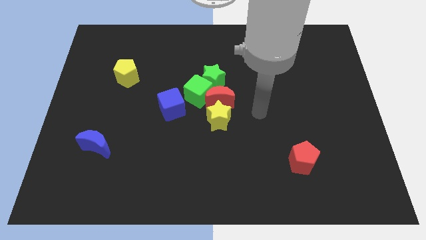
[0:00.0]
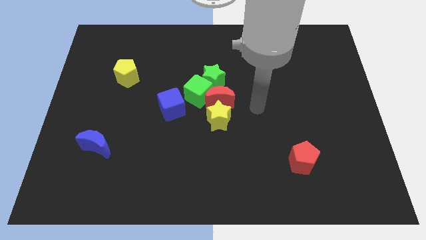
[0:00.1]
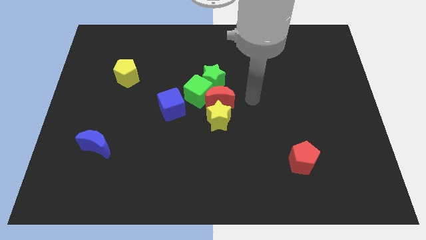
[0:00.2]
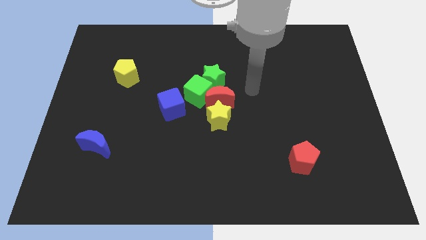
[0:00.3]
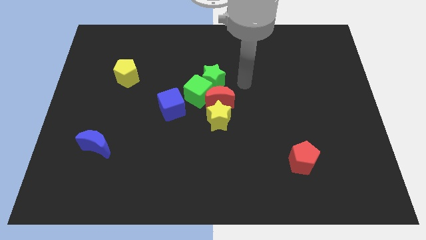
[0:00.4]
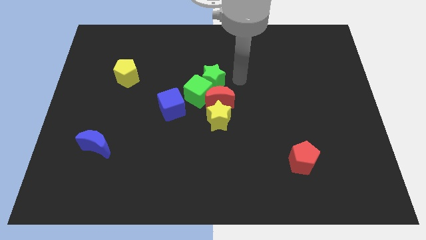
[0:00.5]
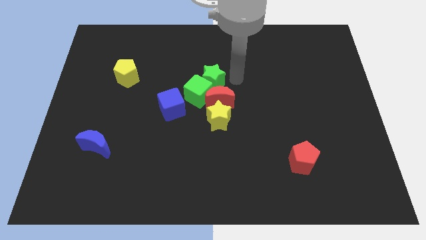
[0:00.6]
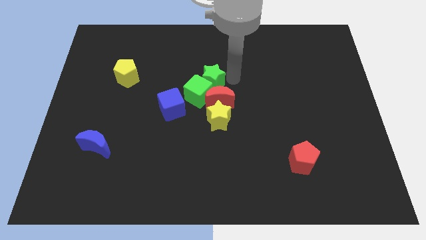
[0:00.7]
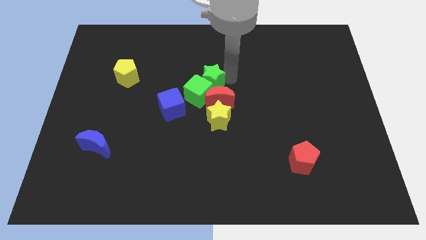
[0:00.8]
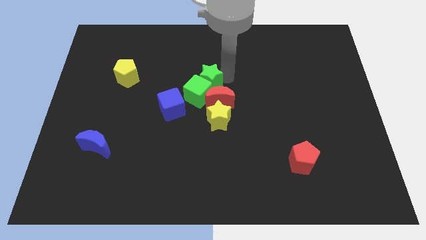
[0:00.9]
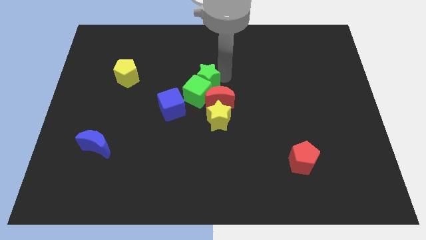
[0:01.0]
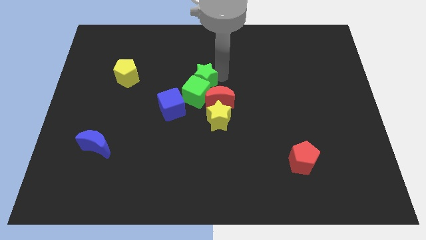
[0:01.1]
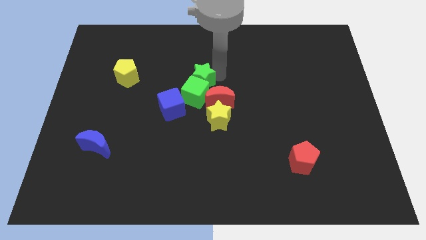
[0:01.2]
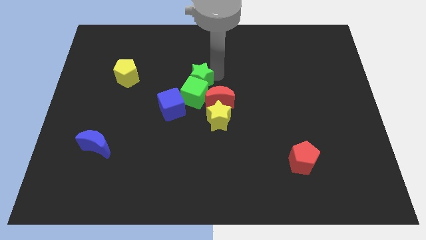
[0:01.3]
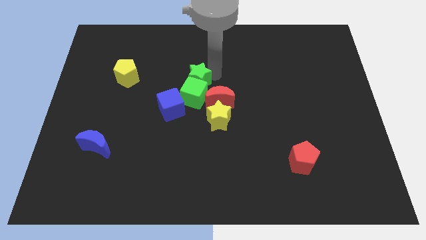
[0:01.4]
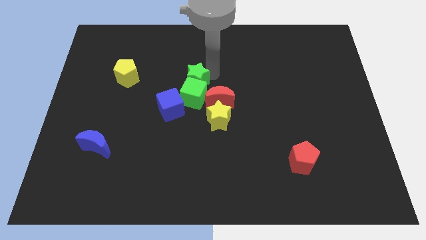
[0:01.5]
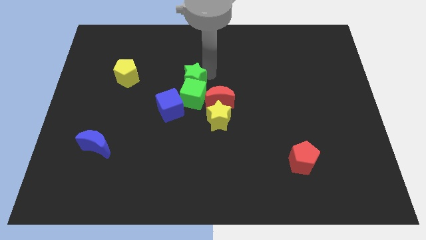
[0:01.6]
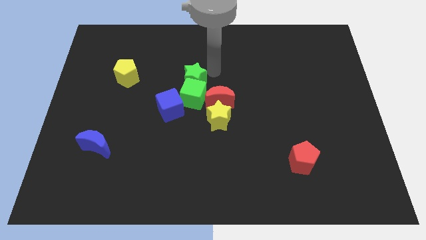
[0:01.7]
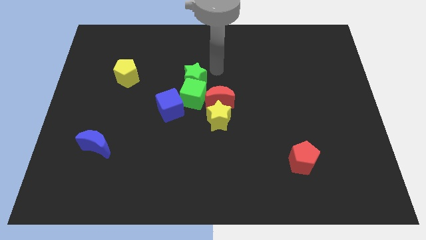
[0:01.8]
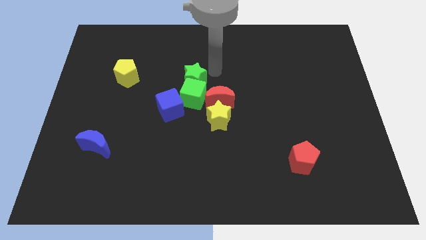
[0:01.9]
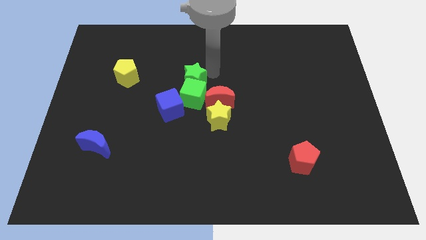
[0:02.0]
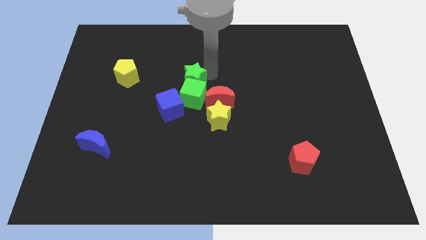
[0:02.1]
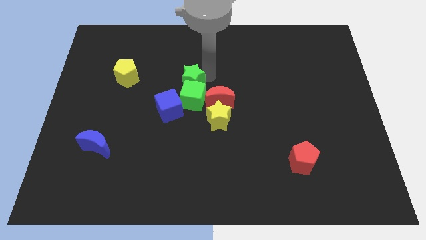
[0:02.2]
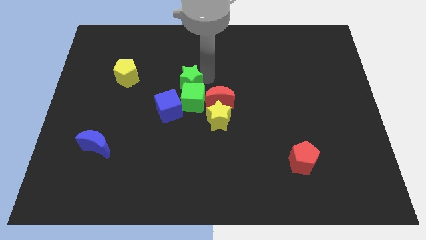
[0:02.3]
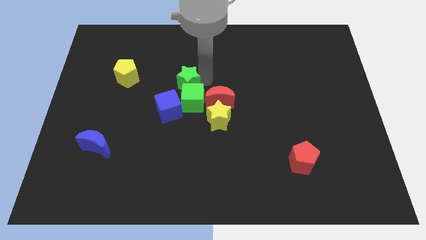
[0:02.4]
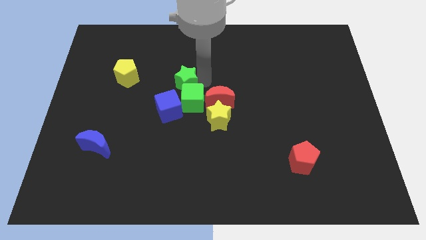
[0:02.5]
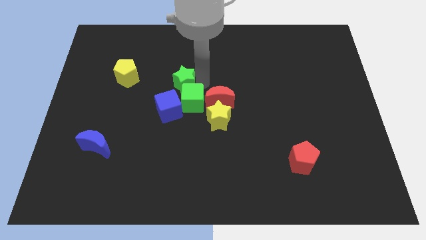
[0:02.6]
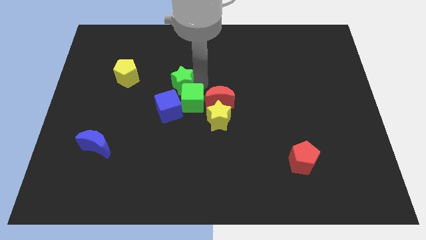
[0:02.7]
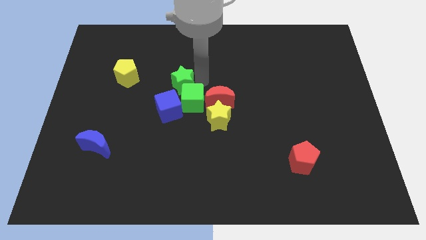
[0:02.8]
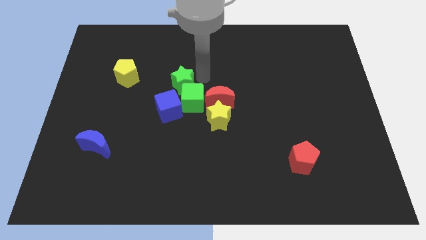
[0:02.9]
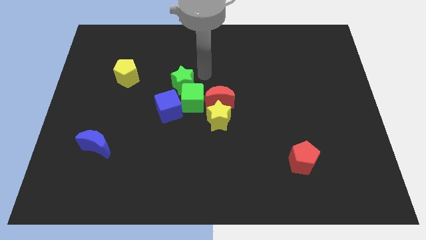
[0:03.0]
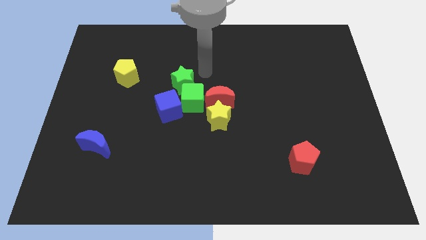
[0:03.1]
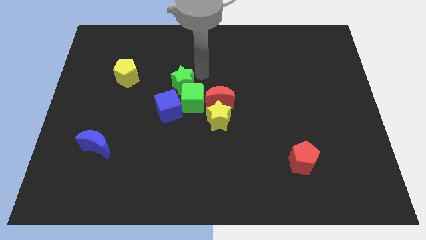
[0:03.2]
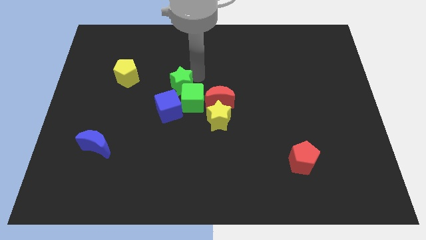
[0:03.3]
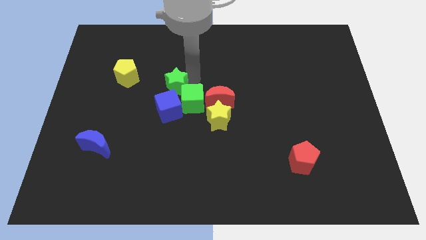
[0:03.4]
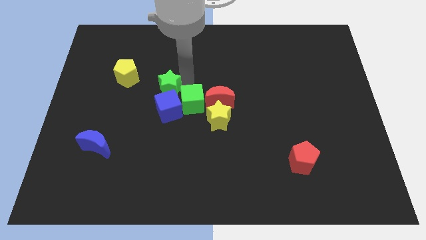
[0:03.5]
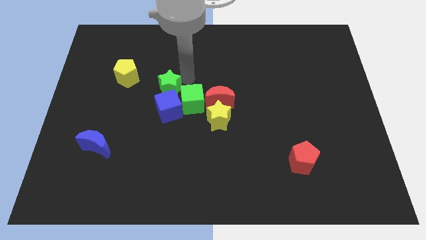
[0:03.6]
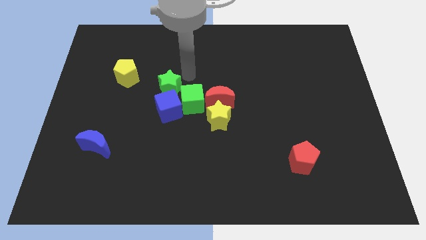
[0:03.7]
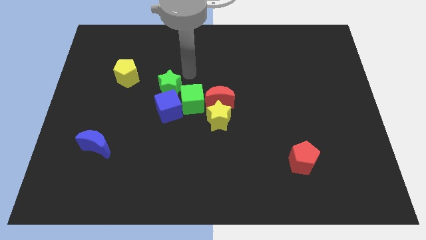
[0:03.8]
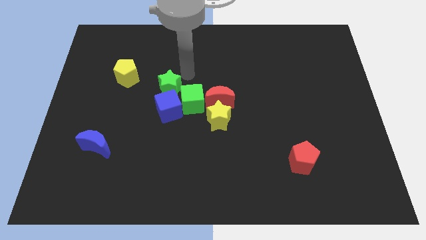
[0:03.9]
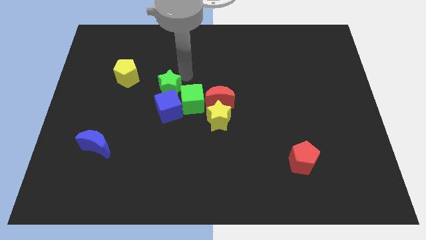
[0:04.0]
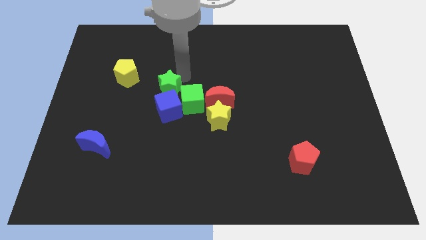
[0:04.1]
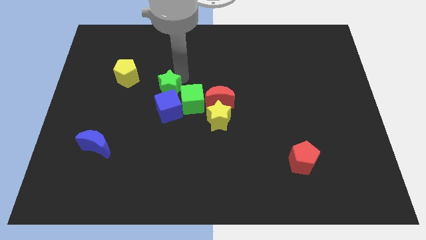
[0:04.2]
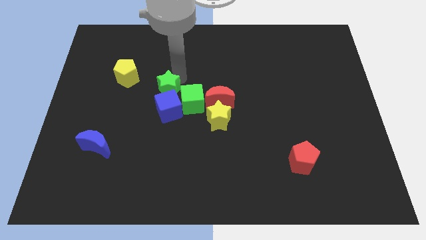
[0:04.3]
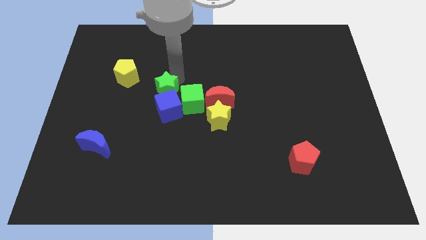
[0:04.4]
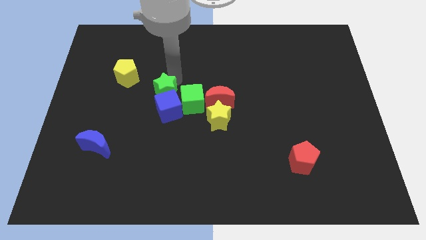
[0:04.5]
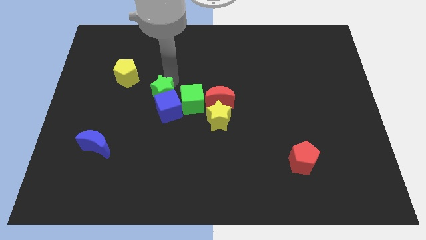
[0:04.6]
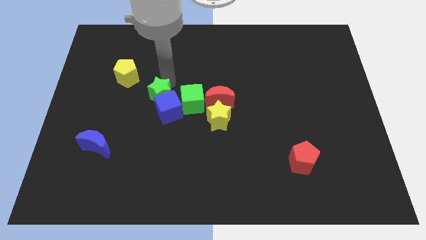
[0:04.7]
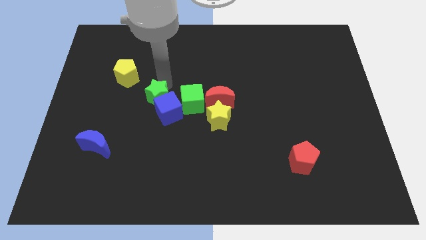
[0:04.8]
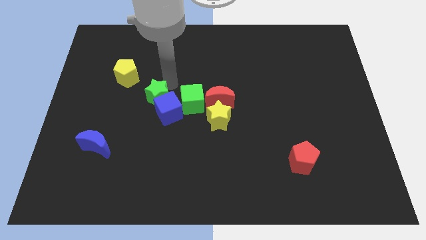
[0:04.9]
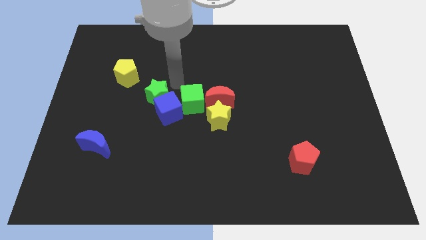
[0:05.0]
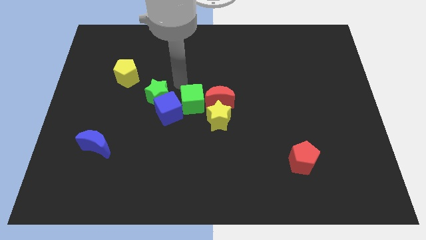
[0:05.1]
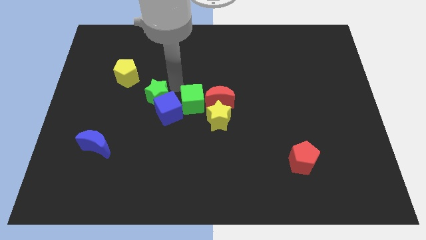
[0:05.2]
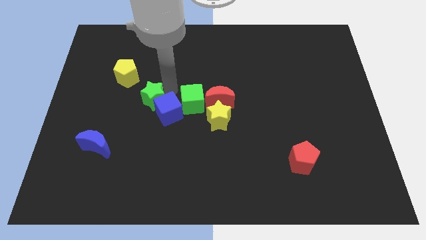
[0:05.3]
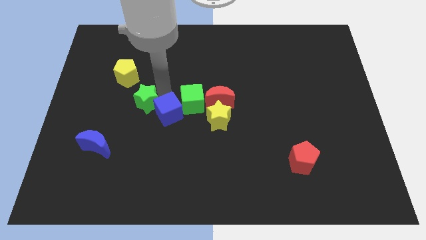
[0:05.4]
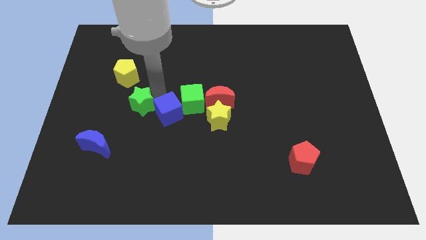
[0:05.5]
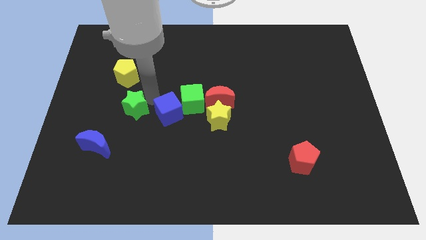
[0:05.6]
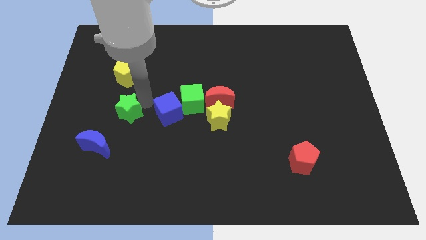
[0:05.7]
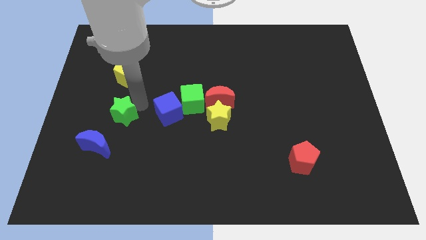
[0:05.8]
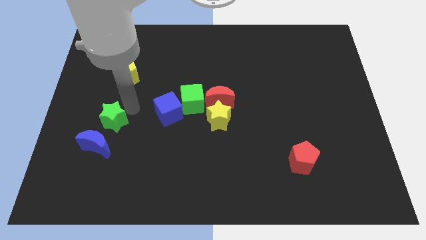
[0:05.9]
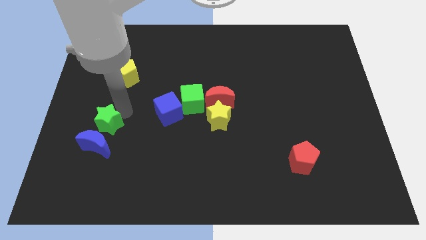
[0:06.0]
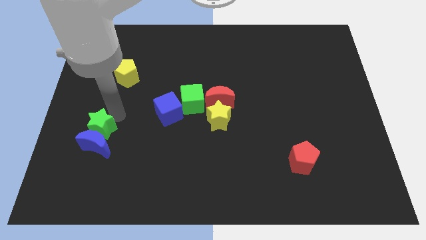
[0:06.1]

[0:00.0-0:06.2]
push the green star to the blue moon

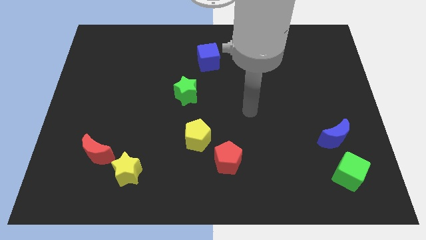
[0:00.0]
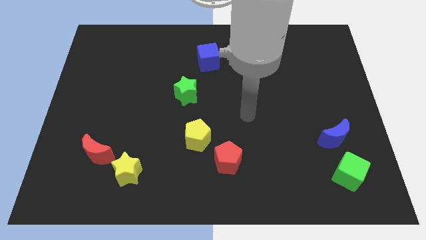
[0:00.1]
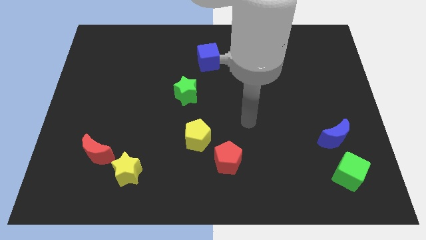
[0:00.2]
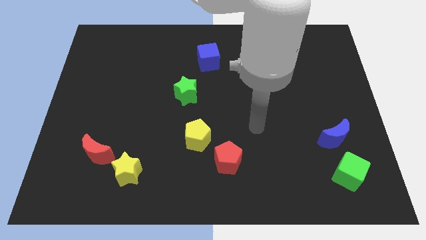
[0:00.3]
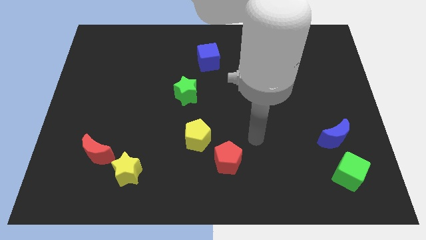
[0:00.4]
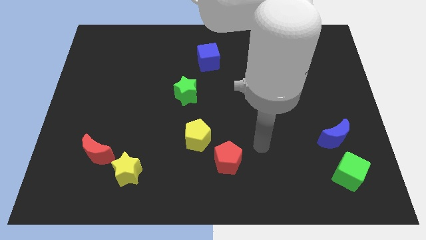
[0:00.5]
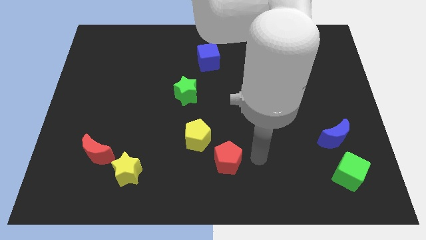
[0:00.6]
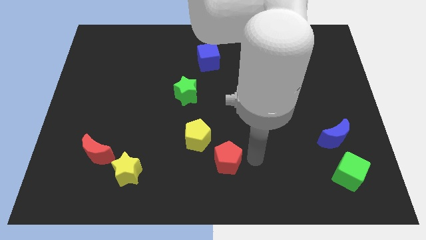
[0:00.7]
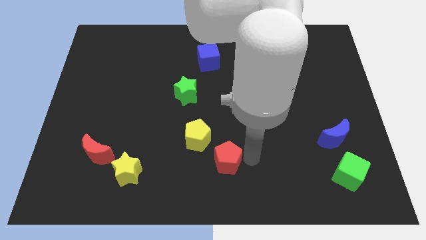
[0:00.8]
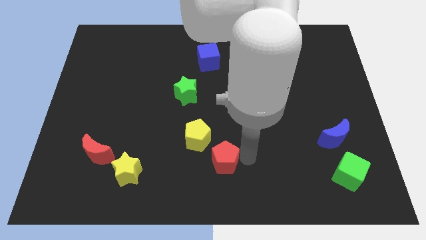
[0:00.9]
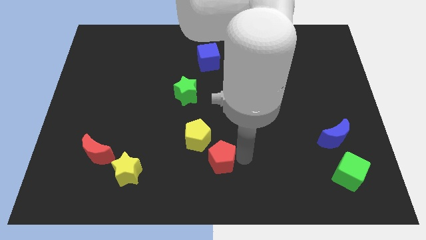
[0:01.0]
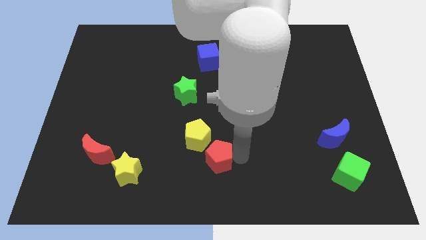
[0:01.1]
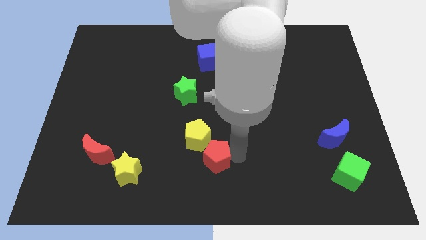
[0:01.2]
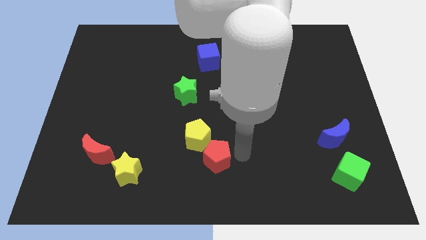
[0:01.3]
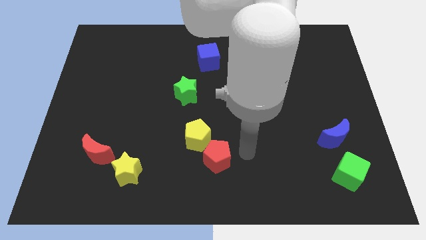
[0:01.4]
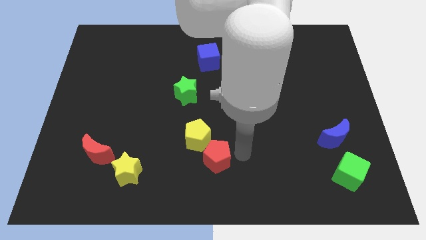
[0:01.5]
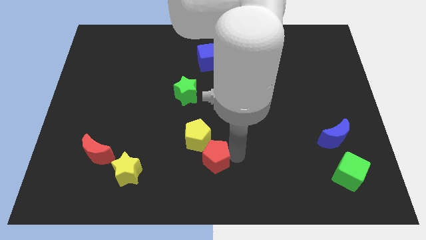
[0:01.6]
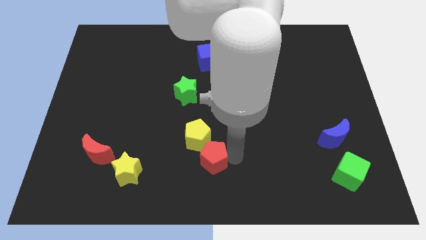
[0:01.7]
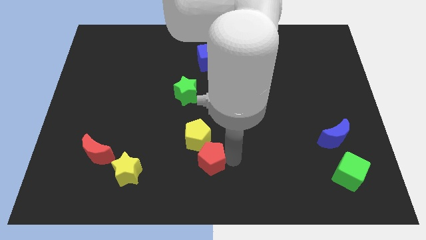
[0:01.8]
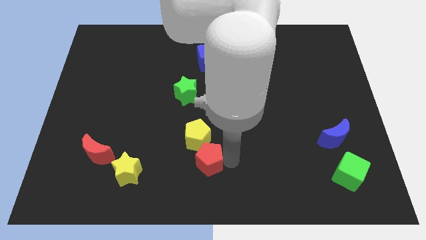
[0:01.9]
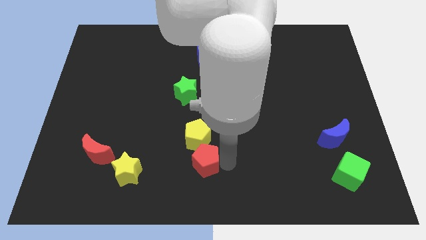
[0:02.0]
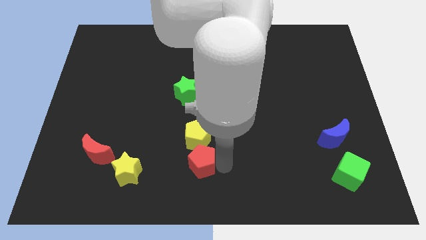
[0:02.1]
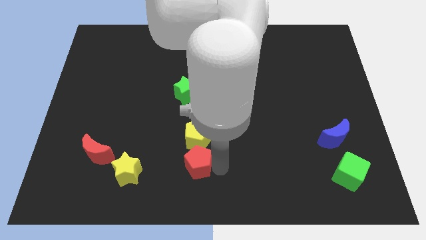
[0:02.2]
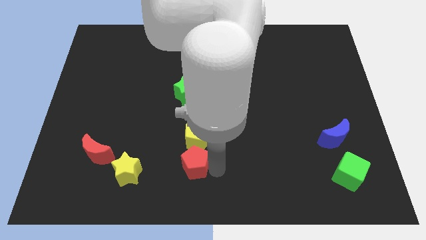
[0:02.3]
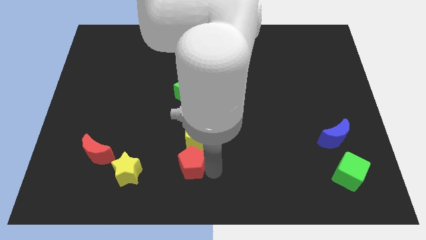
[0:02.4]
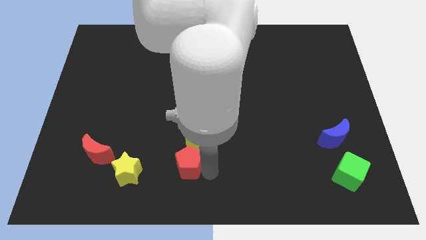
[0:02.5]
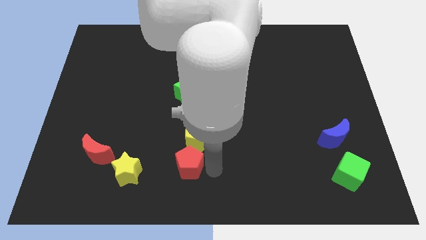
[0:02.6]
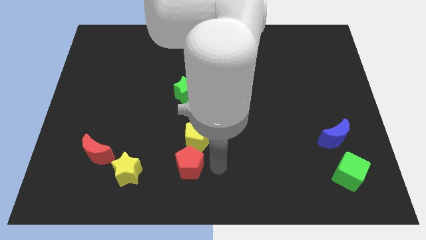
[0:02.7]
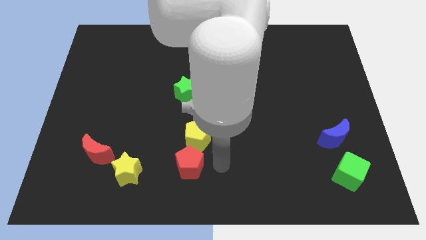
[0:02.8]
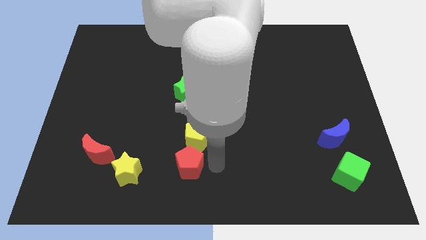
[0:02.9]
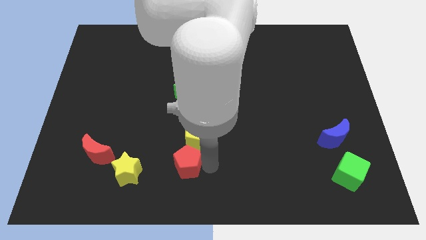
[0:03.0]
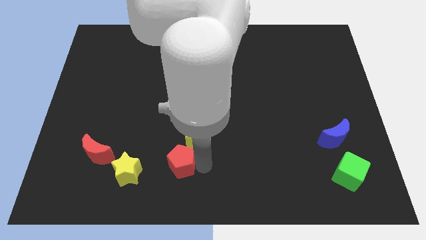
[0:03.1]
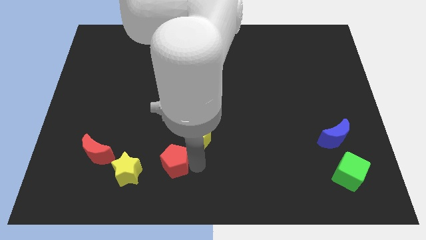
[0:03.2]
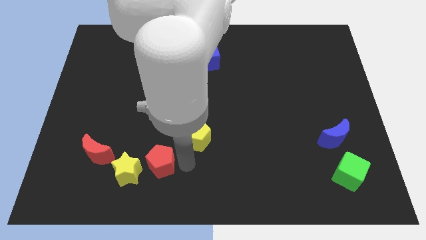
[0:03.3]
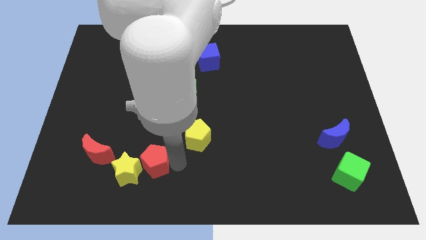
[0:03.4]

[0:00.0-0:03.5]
move the red pentagon towards the yellow star
